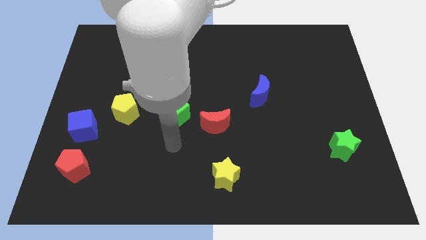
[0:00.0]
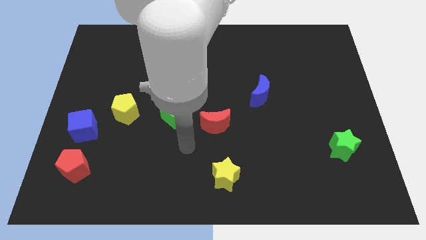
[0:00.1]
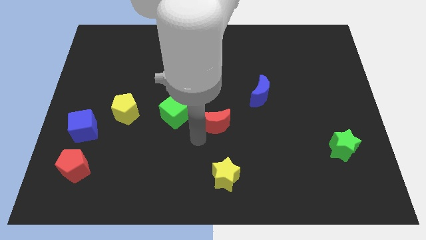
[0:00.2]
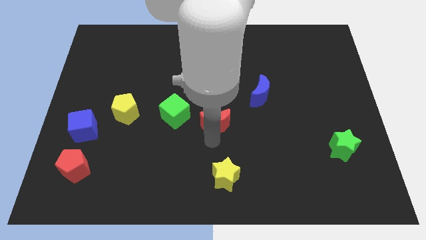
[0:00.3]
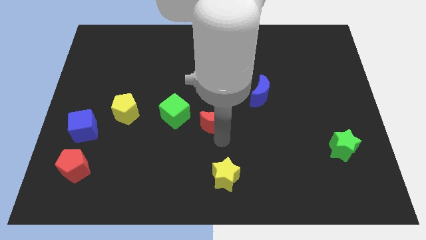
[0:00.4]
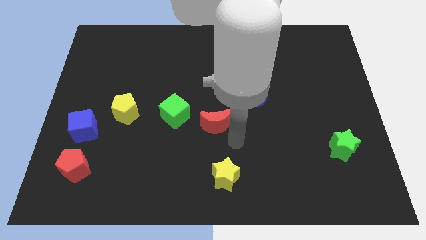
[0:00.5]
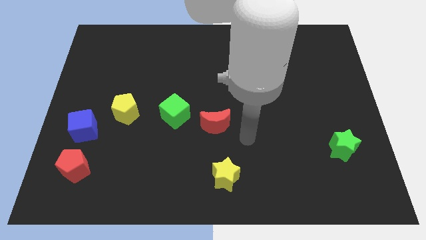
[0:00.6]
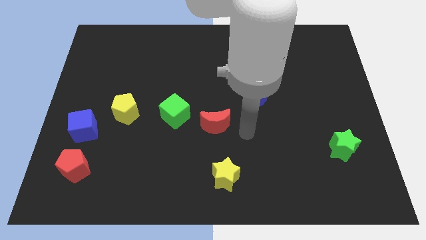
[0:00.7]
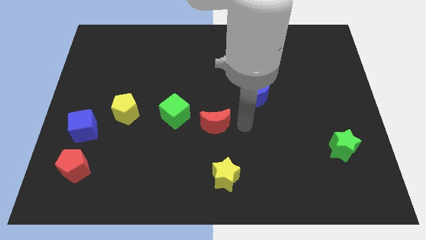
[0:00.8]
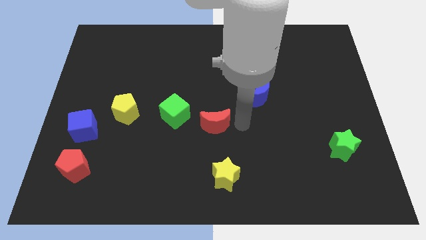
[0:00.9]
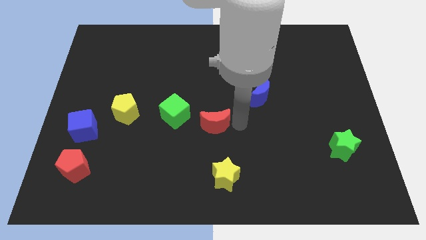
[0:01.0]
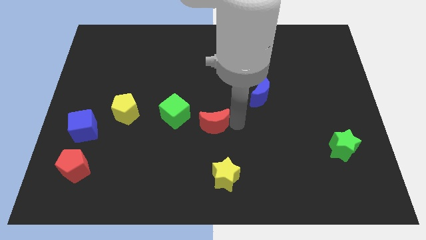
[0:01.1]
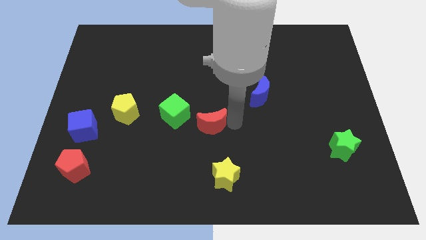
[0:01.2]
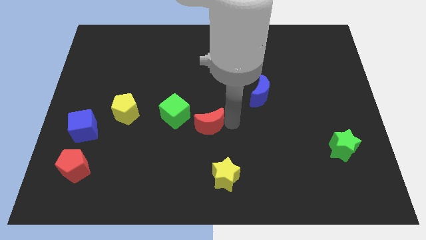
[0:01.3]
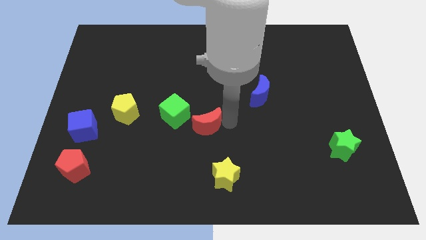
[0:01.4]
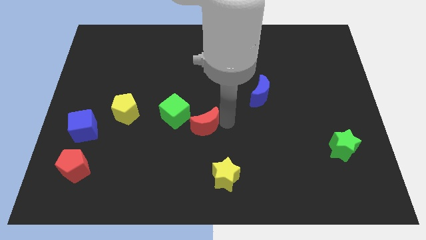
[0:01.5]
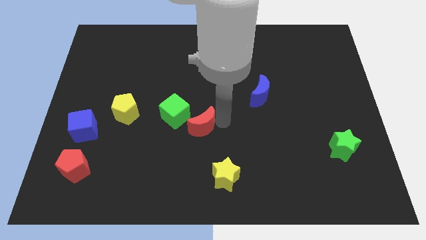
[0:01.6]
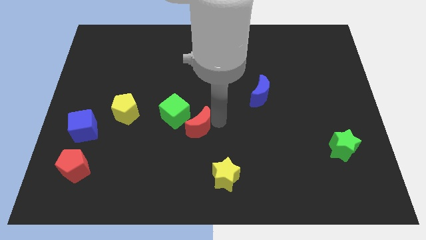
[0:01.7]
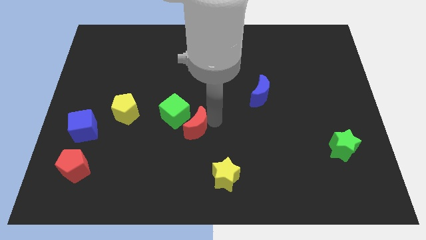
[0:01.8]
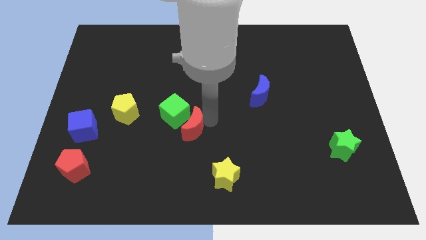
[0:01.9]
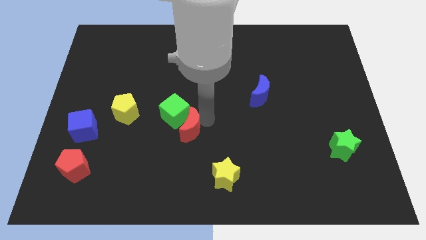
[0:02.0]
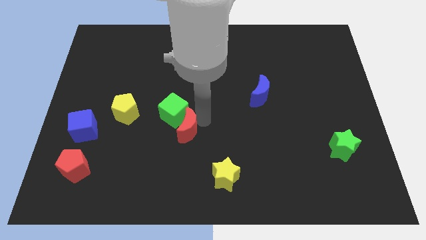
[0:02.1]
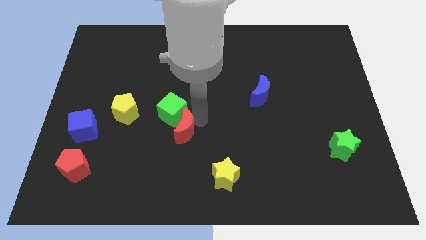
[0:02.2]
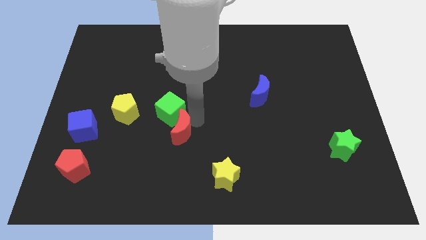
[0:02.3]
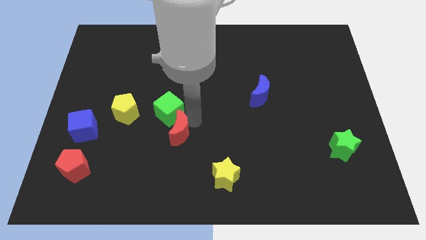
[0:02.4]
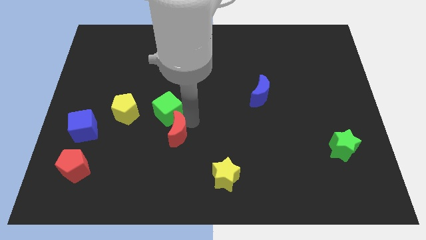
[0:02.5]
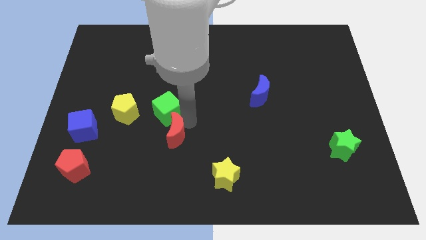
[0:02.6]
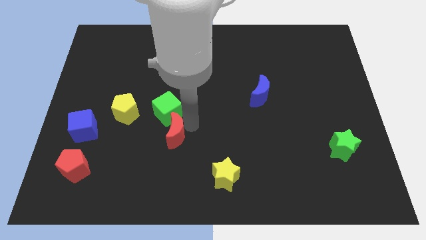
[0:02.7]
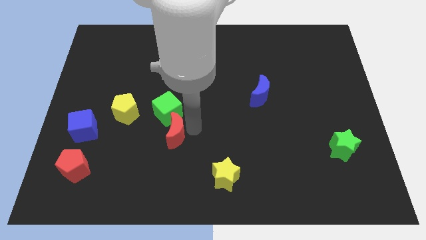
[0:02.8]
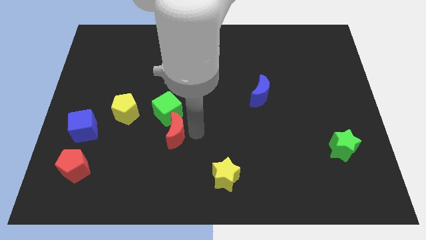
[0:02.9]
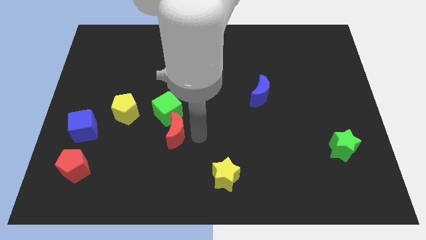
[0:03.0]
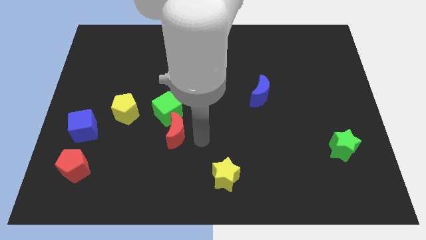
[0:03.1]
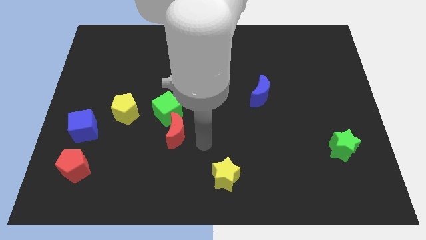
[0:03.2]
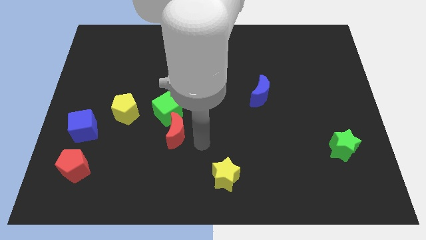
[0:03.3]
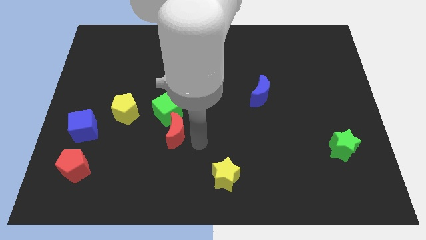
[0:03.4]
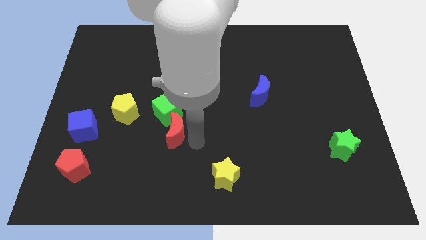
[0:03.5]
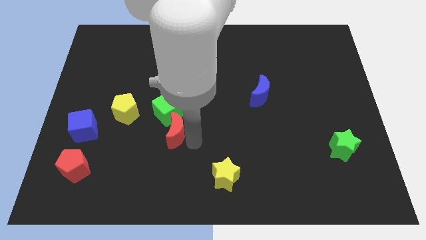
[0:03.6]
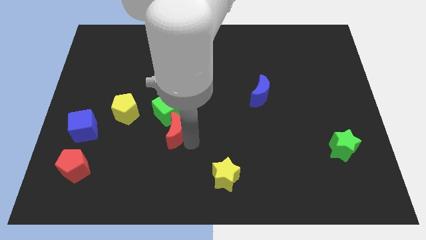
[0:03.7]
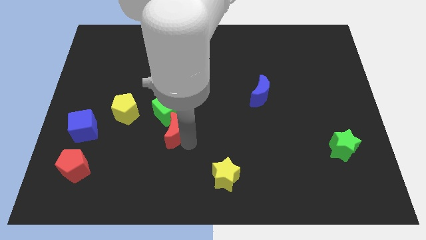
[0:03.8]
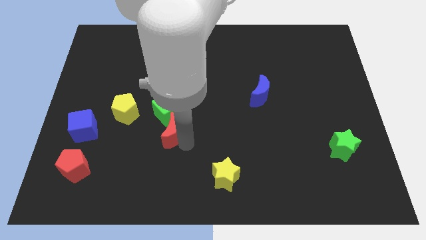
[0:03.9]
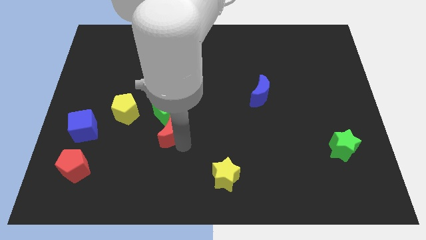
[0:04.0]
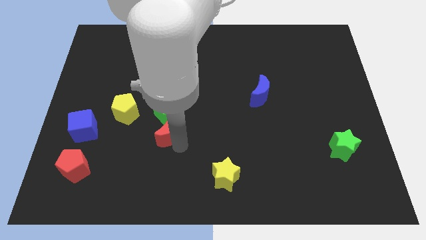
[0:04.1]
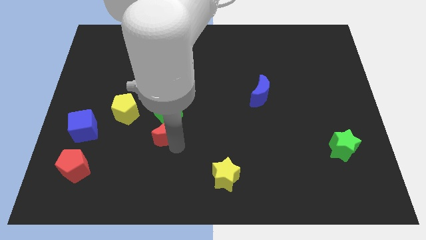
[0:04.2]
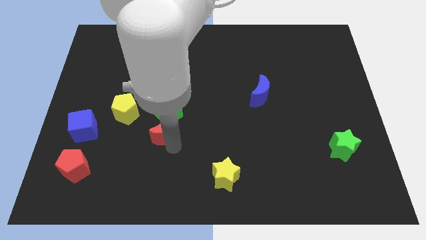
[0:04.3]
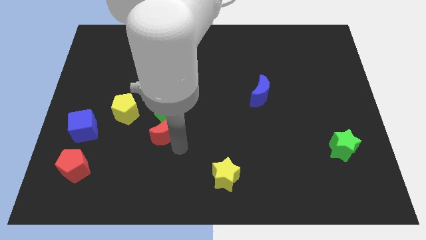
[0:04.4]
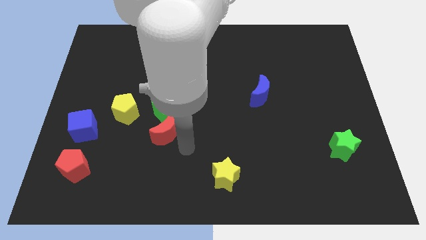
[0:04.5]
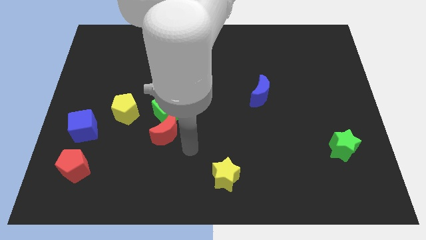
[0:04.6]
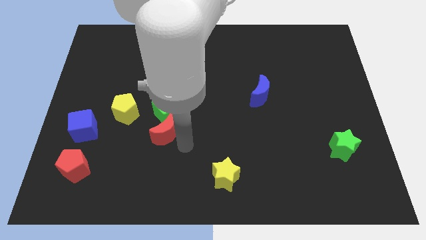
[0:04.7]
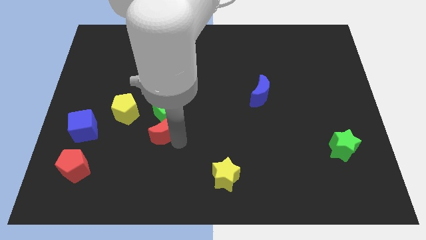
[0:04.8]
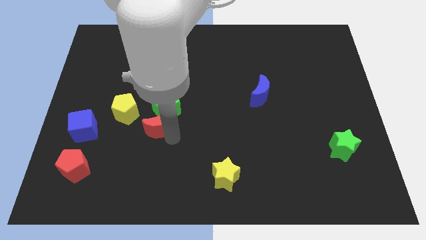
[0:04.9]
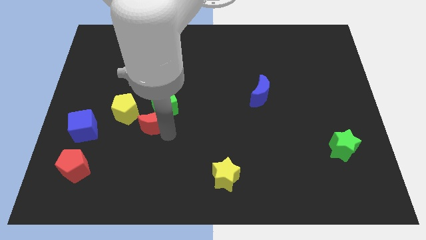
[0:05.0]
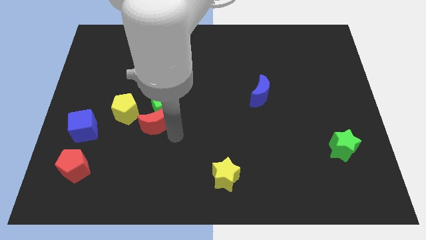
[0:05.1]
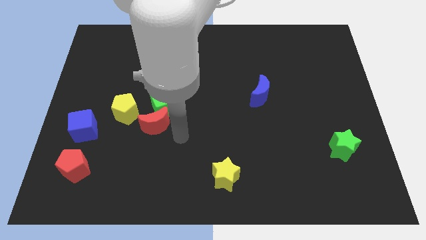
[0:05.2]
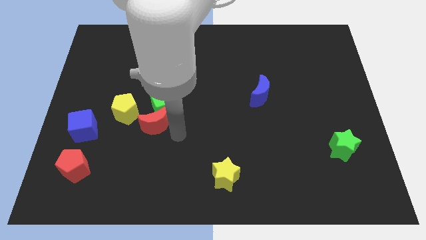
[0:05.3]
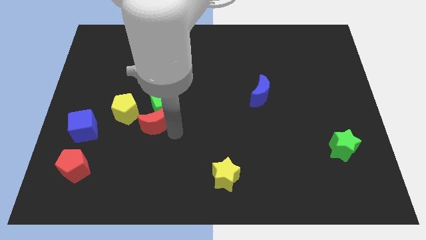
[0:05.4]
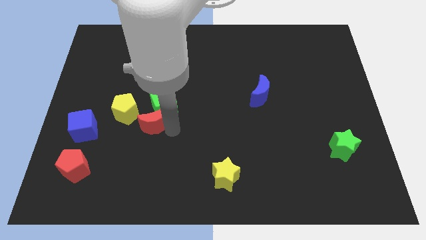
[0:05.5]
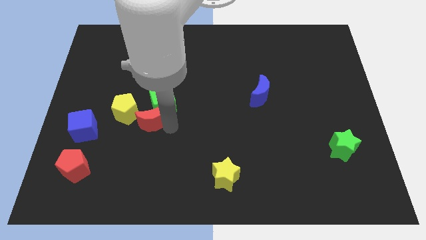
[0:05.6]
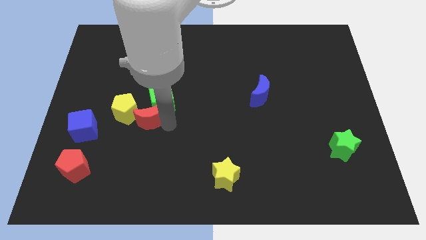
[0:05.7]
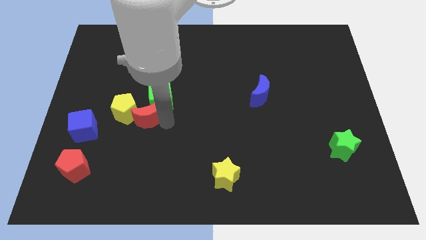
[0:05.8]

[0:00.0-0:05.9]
push the red moon to the yellow pentagon

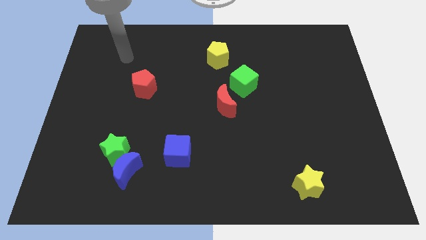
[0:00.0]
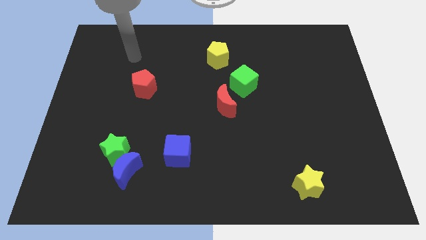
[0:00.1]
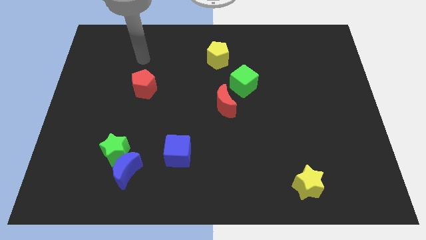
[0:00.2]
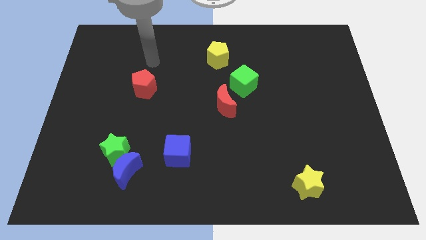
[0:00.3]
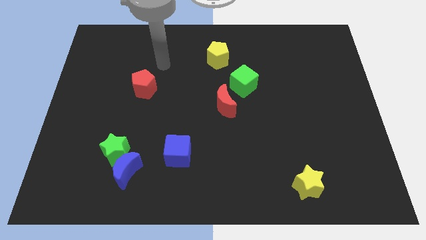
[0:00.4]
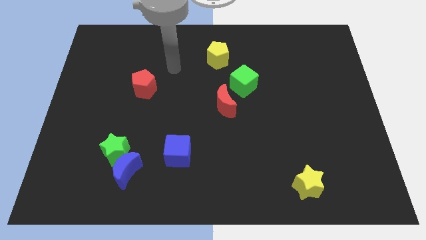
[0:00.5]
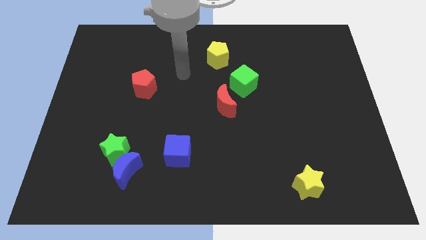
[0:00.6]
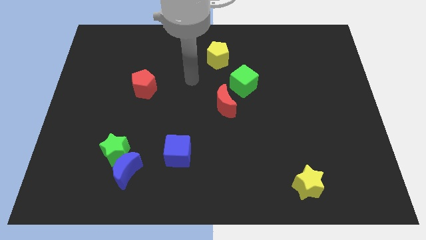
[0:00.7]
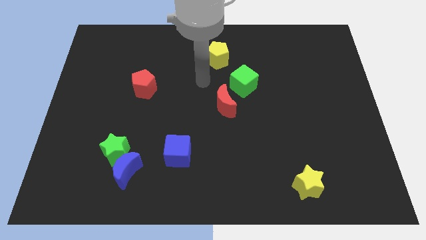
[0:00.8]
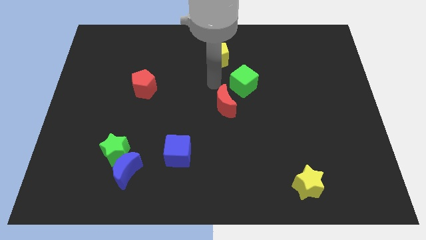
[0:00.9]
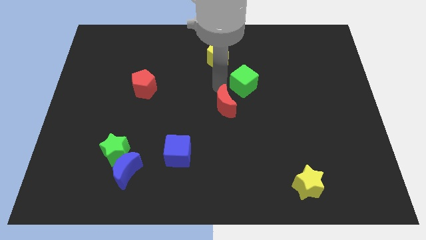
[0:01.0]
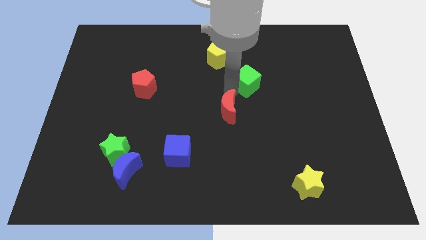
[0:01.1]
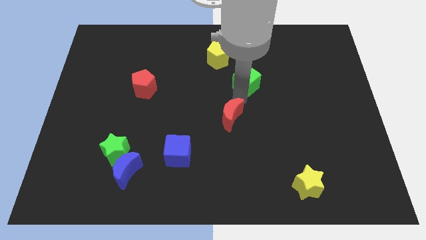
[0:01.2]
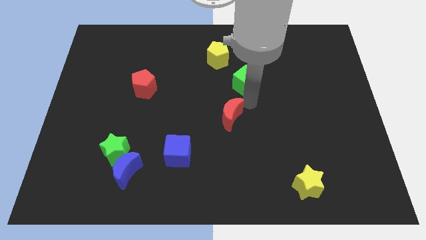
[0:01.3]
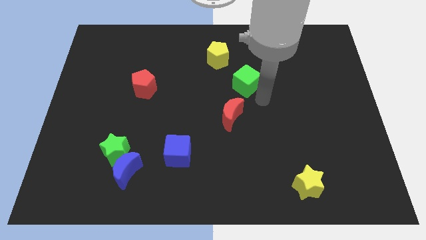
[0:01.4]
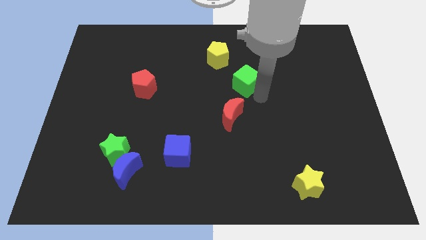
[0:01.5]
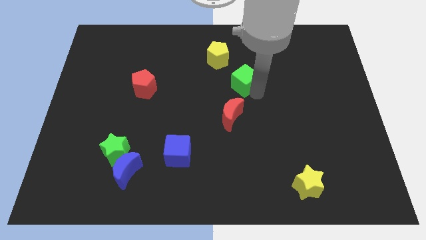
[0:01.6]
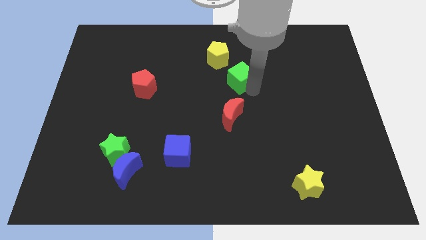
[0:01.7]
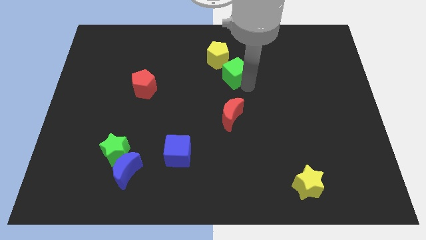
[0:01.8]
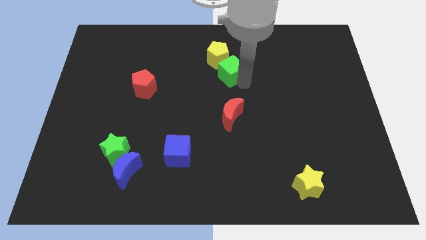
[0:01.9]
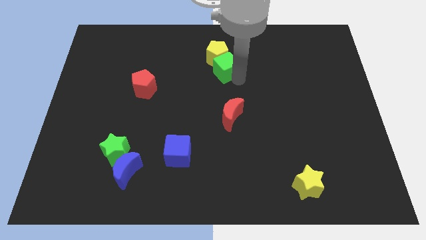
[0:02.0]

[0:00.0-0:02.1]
push the green cube close to the yellow pentagon
